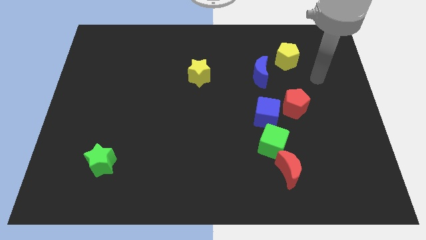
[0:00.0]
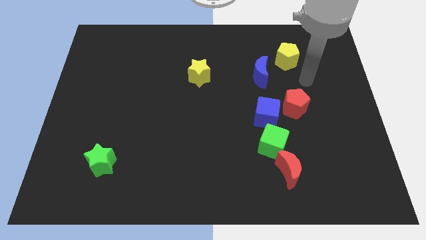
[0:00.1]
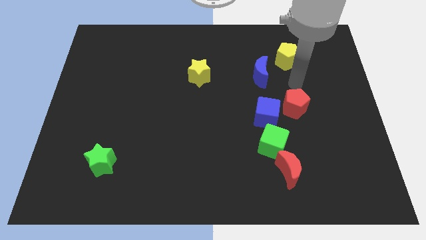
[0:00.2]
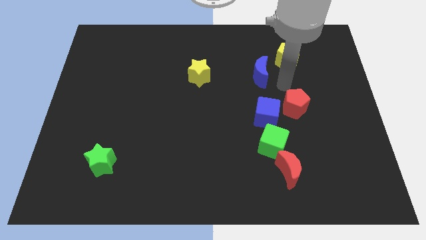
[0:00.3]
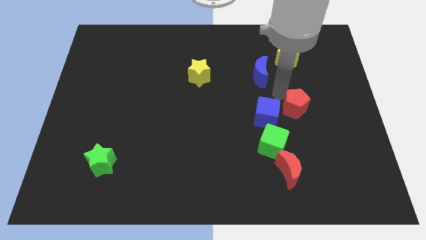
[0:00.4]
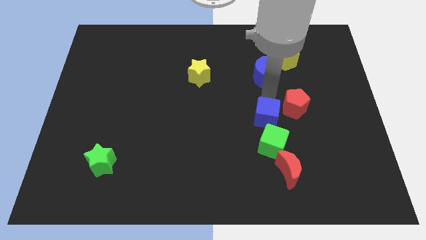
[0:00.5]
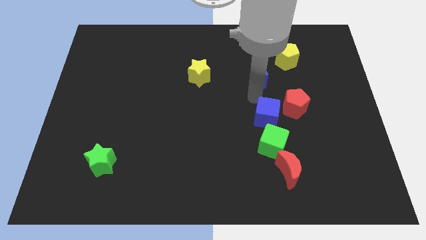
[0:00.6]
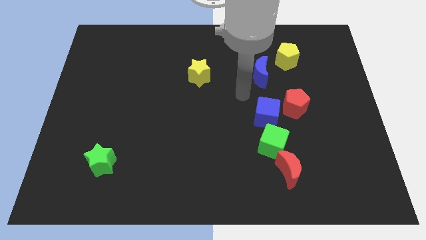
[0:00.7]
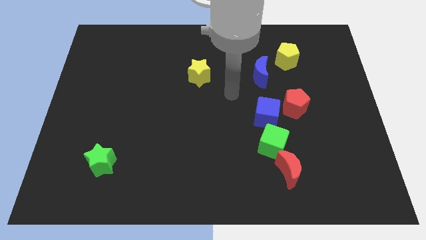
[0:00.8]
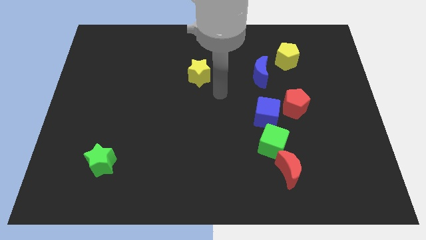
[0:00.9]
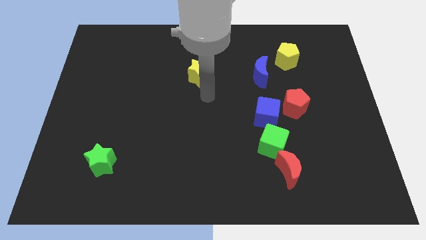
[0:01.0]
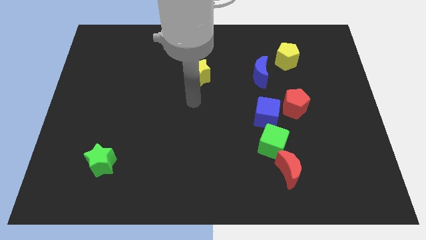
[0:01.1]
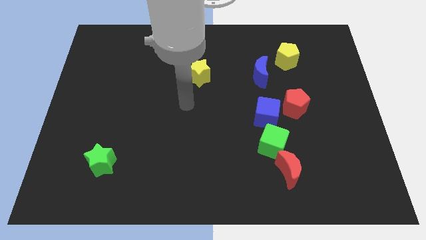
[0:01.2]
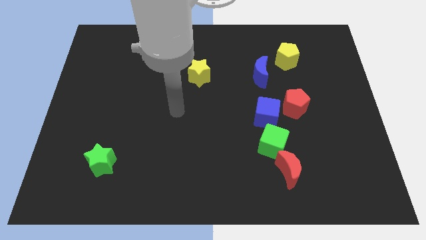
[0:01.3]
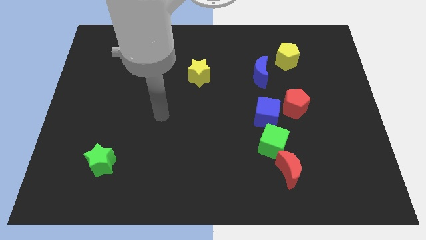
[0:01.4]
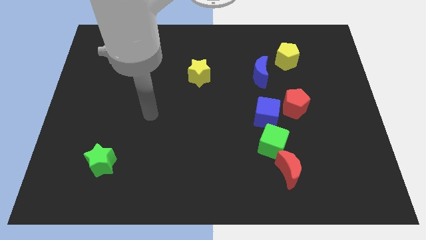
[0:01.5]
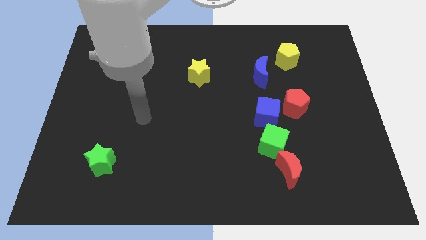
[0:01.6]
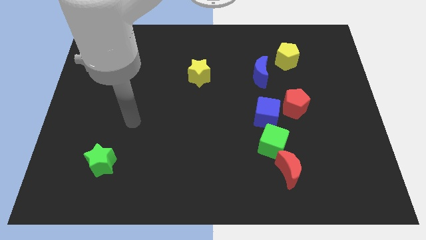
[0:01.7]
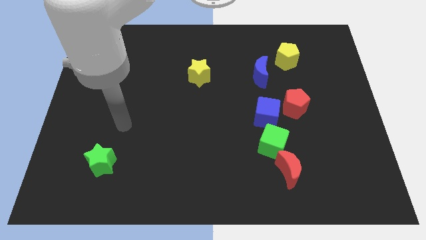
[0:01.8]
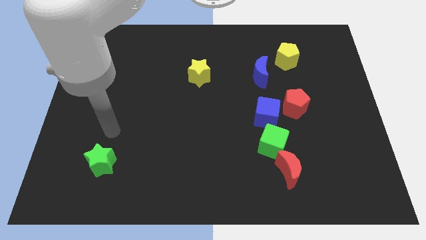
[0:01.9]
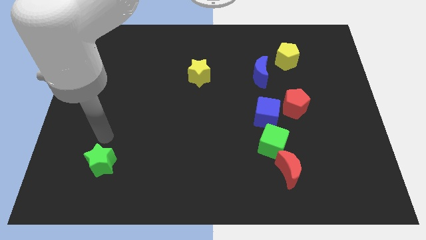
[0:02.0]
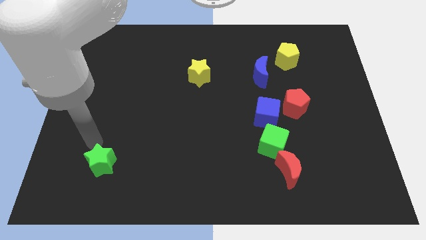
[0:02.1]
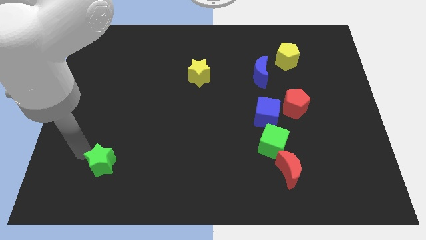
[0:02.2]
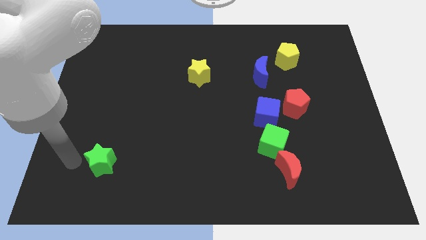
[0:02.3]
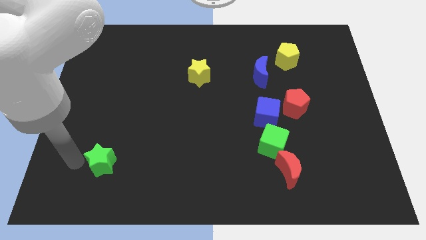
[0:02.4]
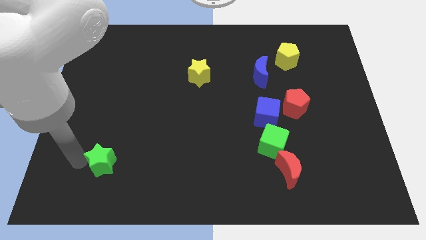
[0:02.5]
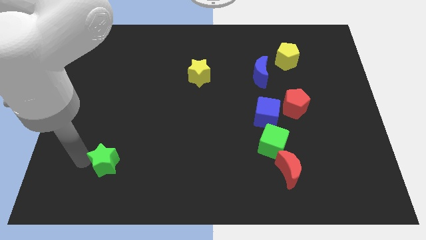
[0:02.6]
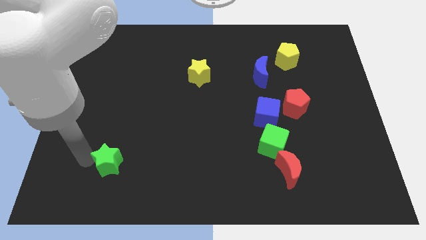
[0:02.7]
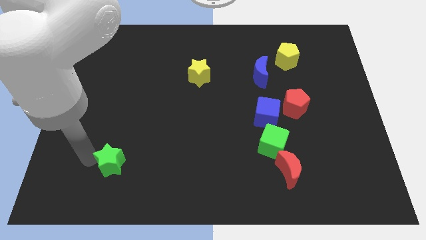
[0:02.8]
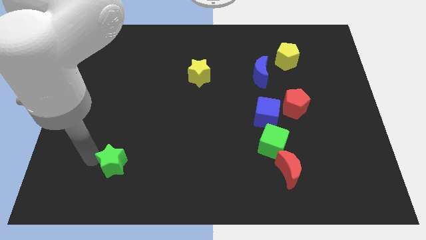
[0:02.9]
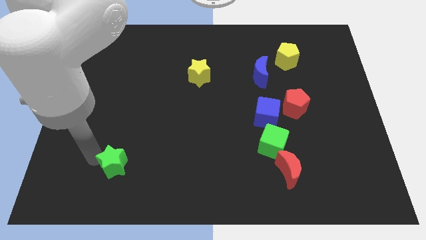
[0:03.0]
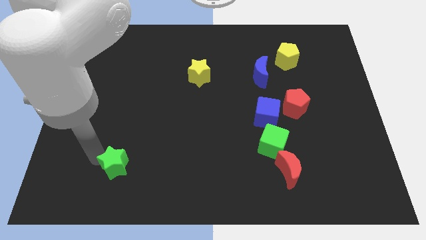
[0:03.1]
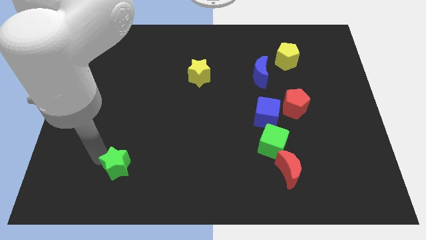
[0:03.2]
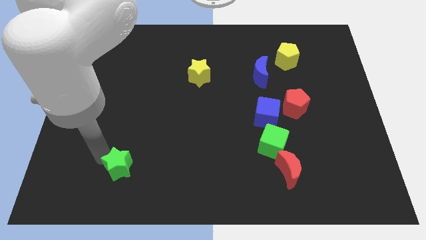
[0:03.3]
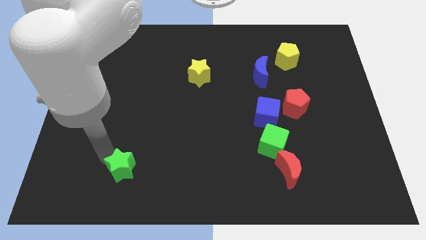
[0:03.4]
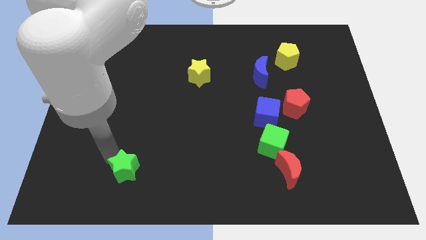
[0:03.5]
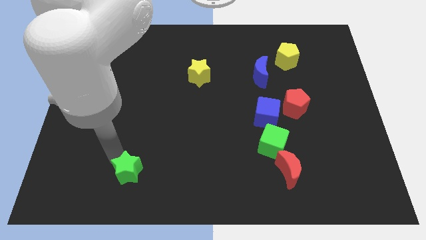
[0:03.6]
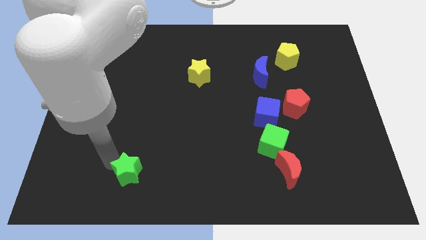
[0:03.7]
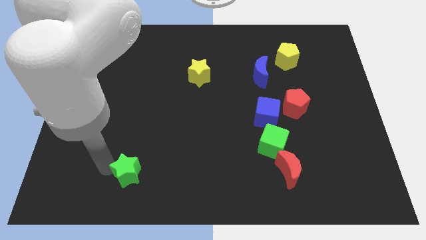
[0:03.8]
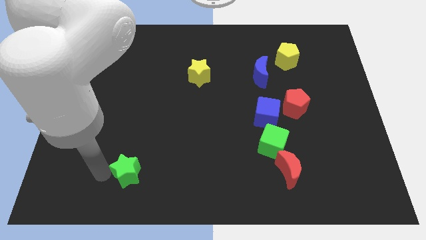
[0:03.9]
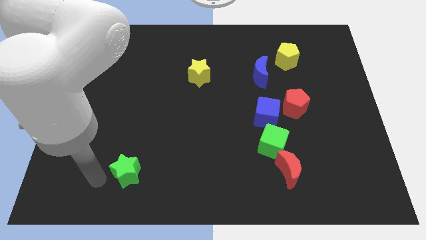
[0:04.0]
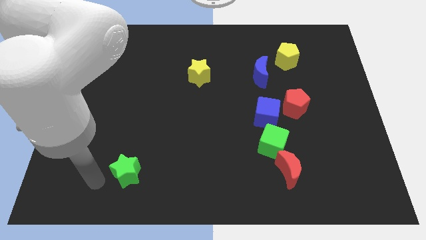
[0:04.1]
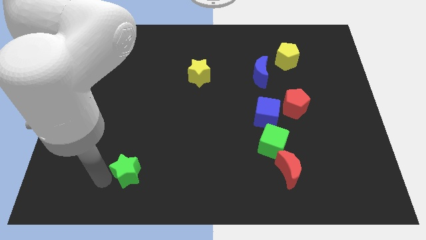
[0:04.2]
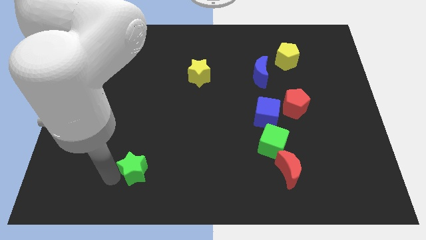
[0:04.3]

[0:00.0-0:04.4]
slide the green star a little to the right

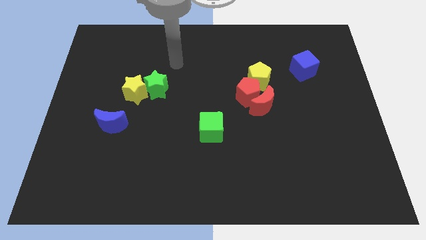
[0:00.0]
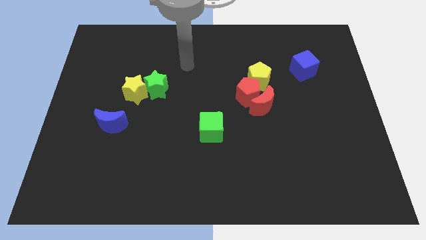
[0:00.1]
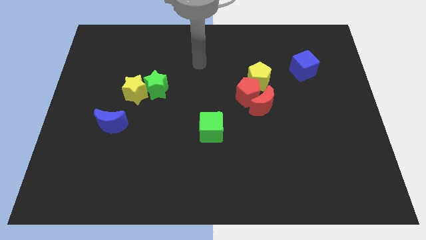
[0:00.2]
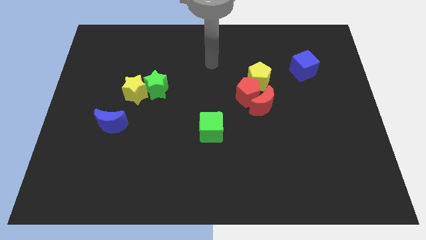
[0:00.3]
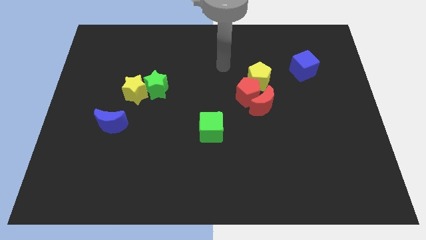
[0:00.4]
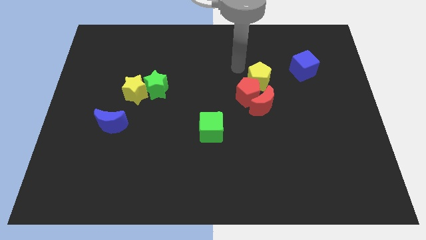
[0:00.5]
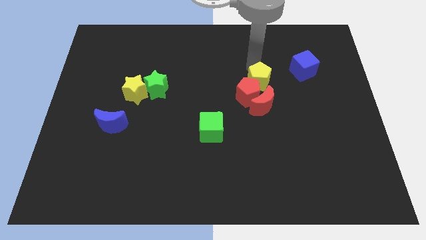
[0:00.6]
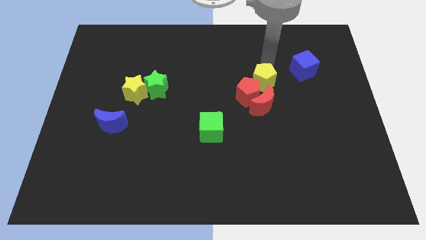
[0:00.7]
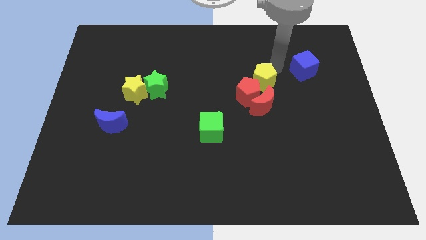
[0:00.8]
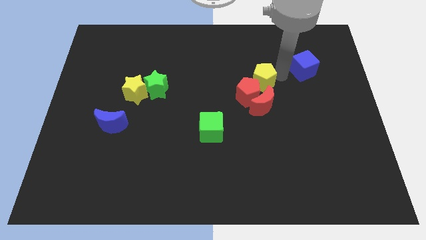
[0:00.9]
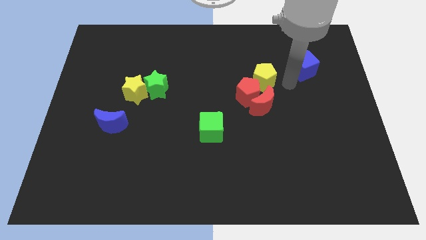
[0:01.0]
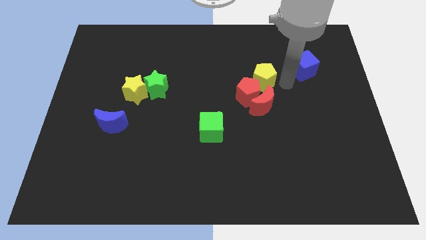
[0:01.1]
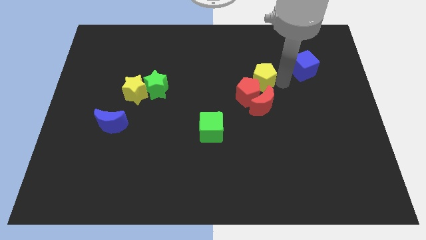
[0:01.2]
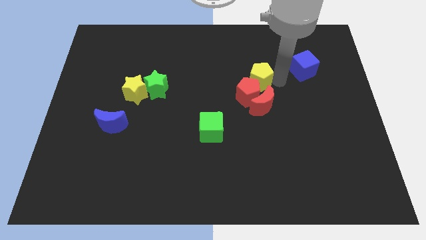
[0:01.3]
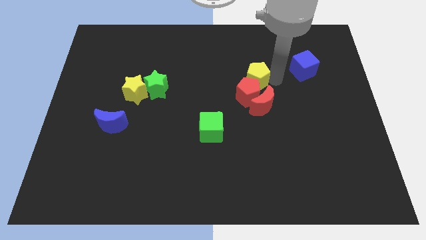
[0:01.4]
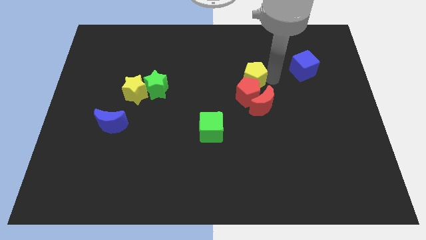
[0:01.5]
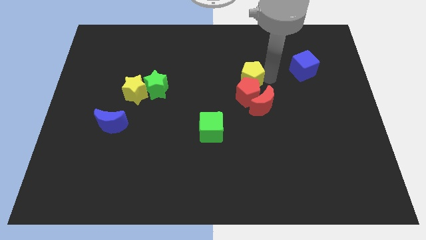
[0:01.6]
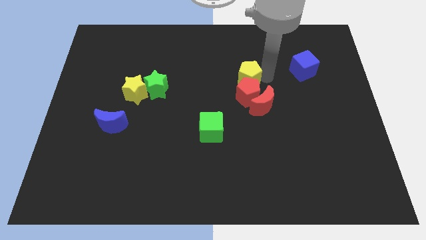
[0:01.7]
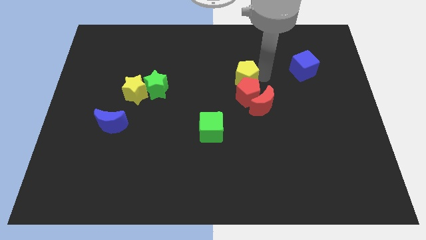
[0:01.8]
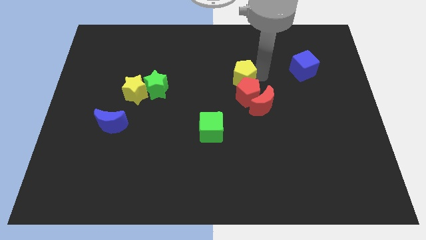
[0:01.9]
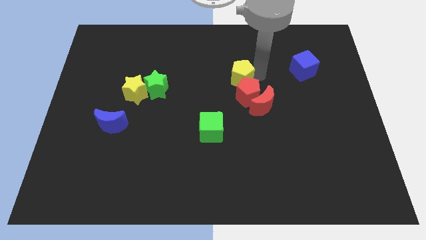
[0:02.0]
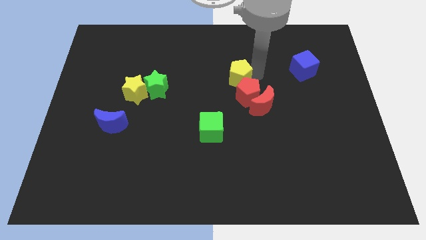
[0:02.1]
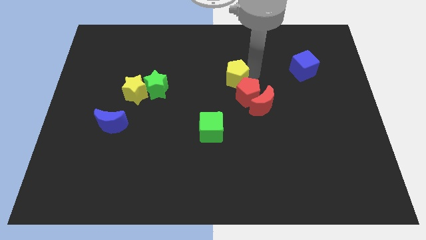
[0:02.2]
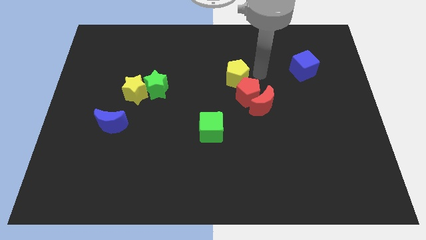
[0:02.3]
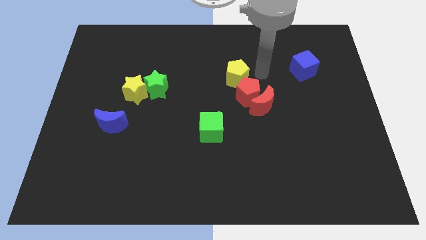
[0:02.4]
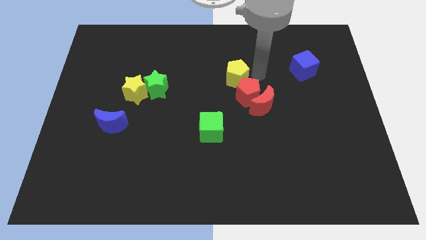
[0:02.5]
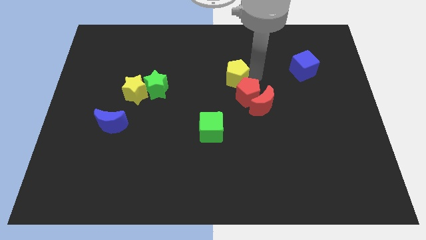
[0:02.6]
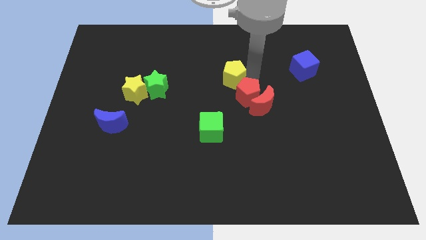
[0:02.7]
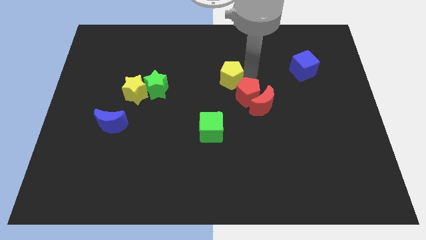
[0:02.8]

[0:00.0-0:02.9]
slide the yellow pentagon left a little

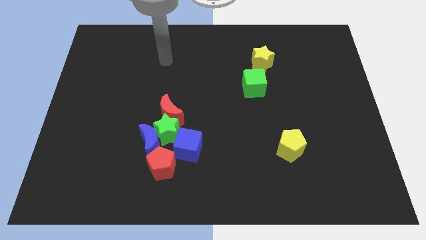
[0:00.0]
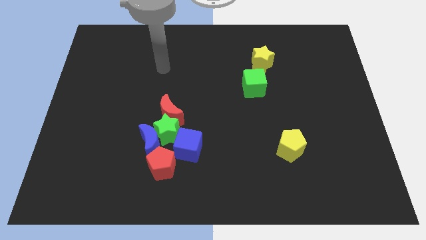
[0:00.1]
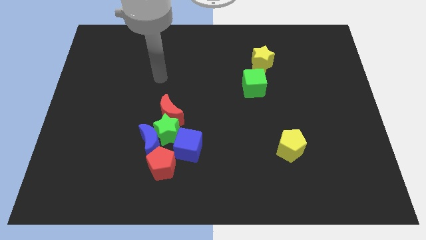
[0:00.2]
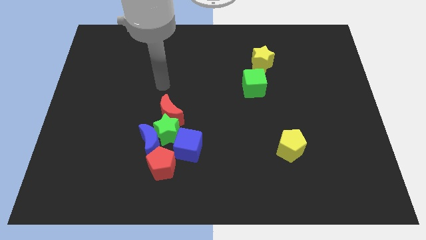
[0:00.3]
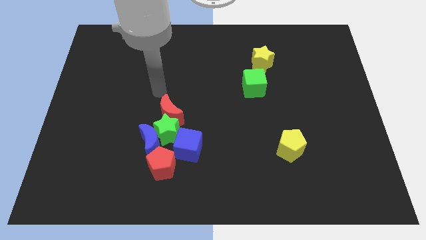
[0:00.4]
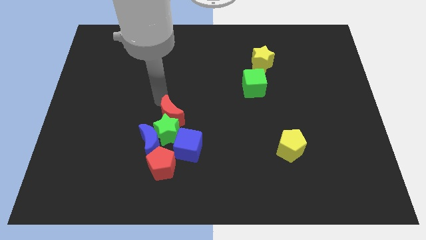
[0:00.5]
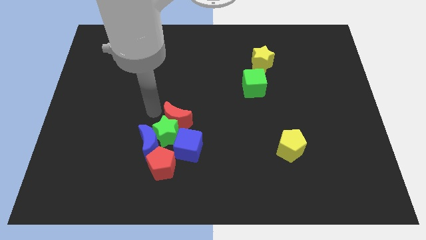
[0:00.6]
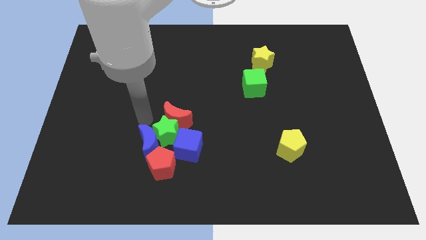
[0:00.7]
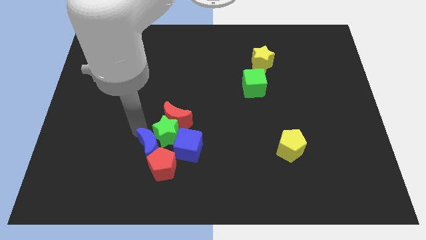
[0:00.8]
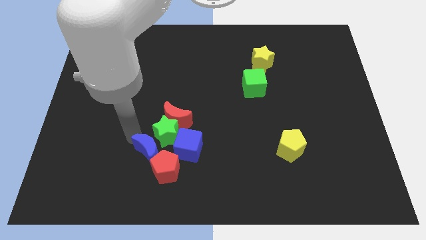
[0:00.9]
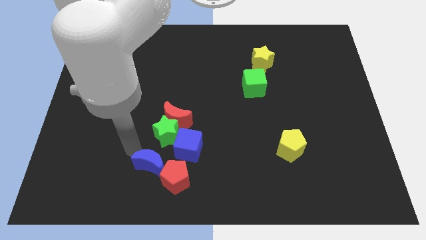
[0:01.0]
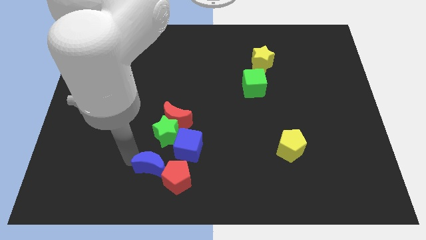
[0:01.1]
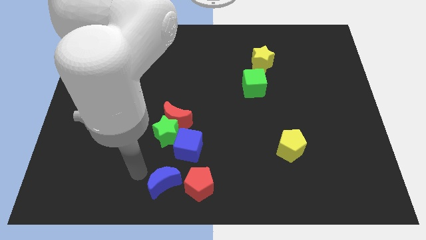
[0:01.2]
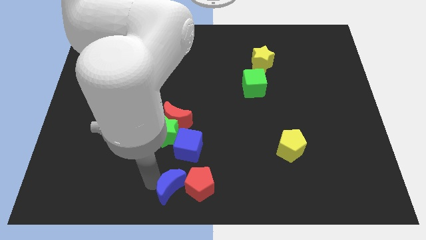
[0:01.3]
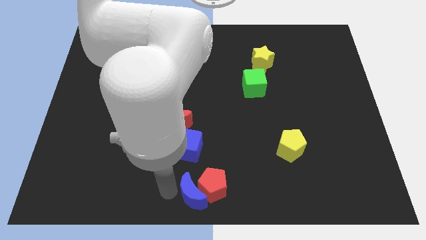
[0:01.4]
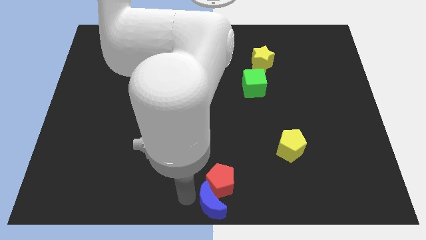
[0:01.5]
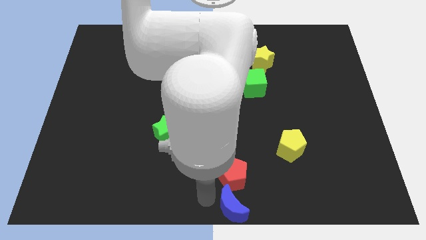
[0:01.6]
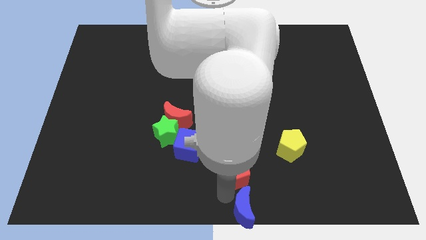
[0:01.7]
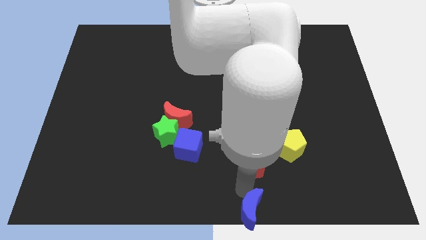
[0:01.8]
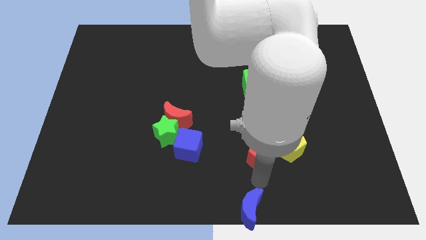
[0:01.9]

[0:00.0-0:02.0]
move the red pentagon right
